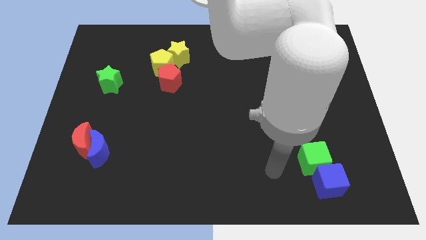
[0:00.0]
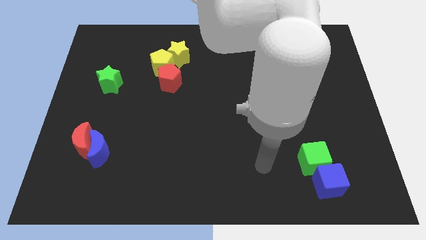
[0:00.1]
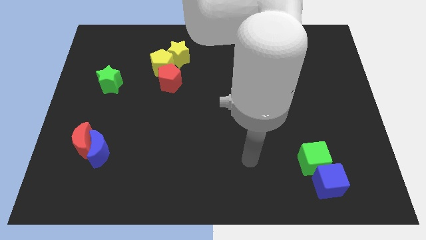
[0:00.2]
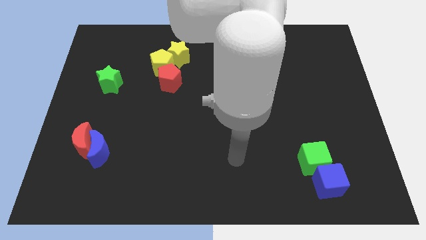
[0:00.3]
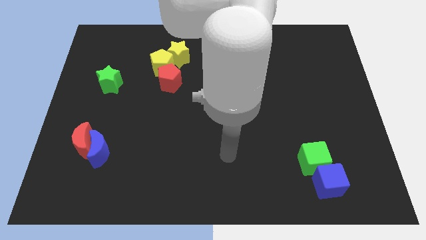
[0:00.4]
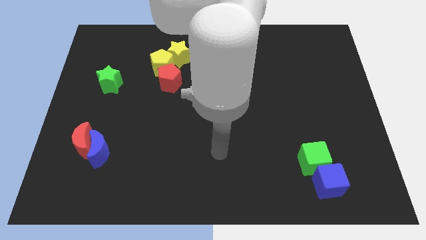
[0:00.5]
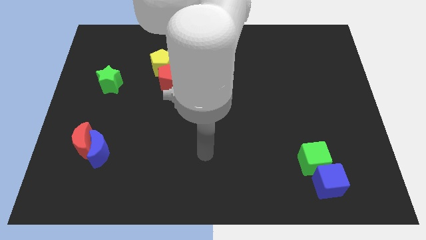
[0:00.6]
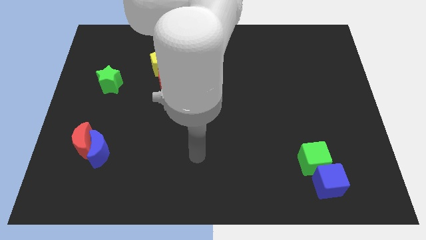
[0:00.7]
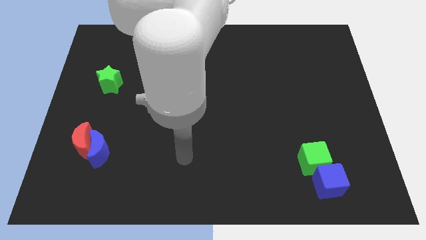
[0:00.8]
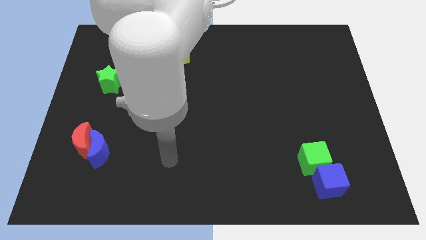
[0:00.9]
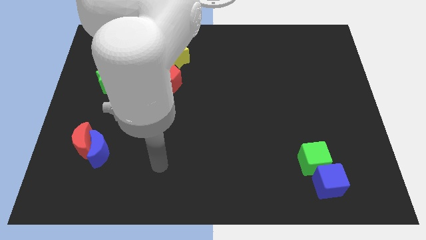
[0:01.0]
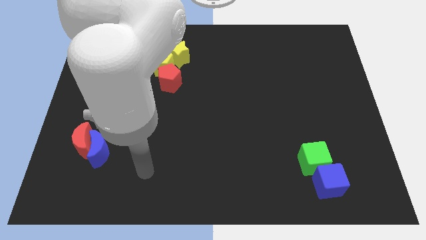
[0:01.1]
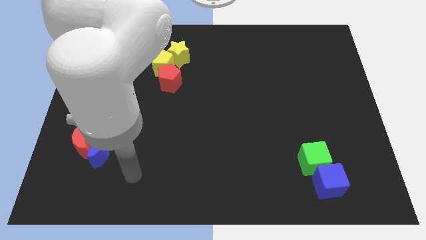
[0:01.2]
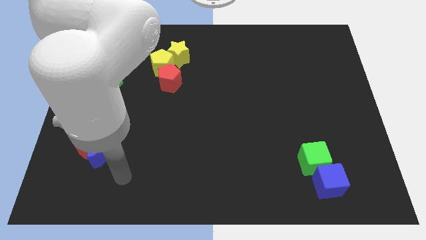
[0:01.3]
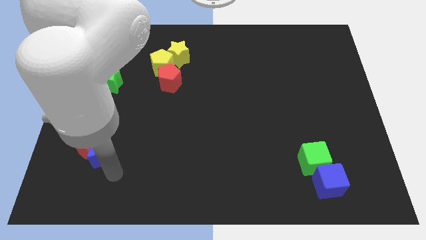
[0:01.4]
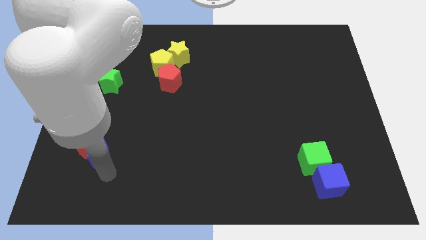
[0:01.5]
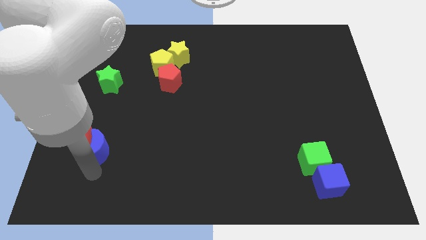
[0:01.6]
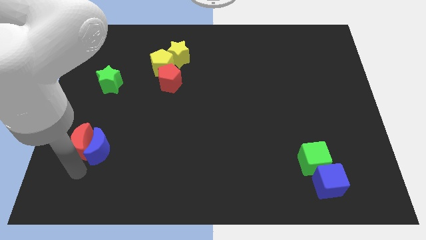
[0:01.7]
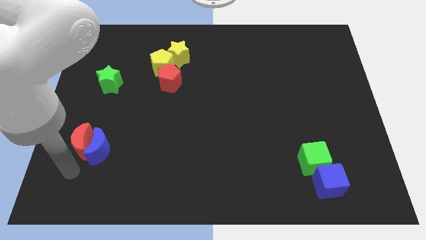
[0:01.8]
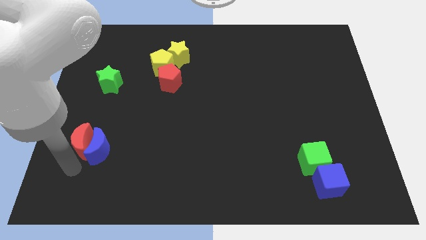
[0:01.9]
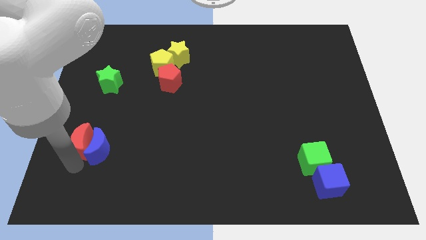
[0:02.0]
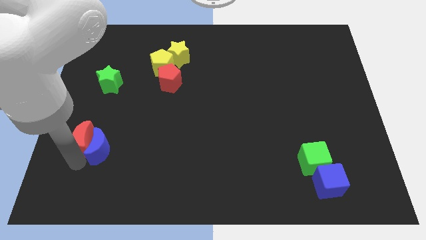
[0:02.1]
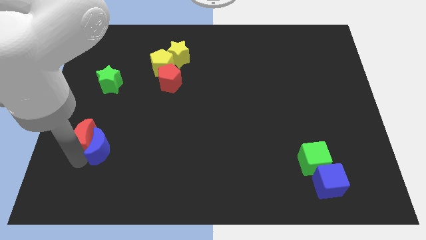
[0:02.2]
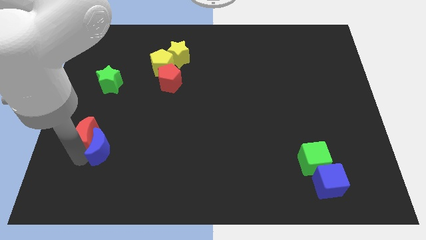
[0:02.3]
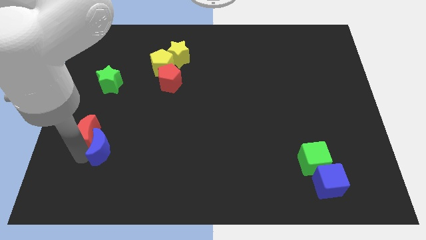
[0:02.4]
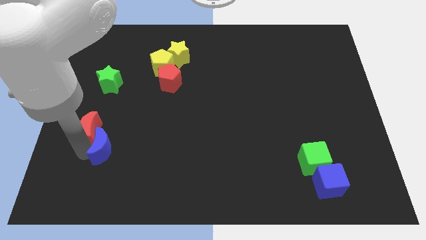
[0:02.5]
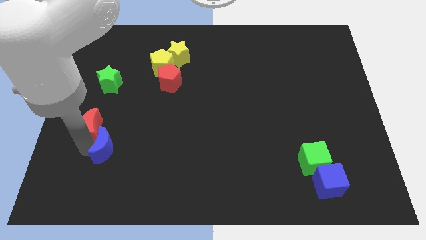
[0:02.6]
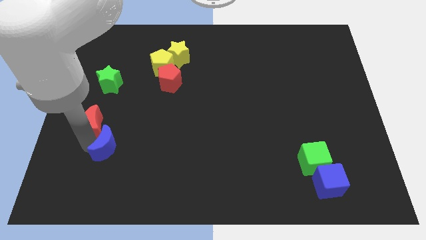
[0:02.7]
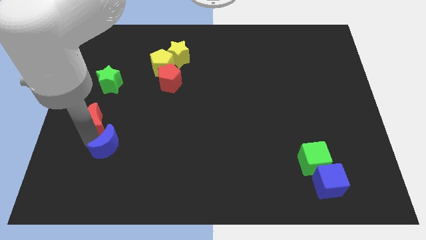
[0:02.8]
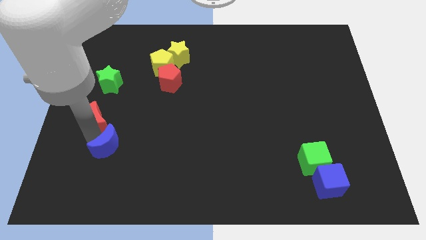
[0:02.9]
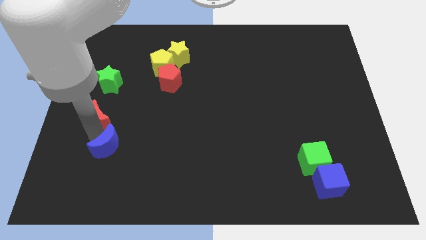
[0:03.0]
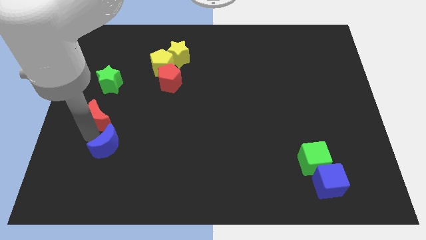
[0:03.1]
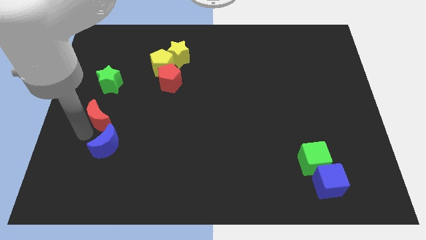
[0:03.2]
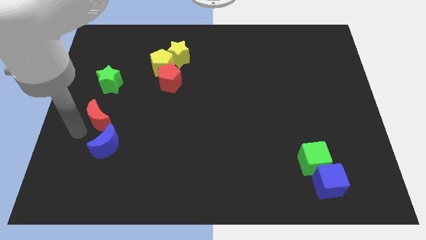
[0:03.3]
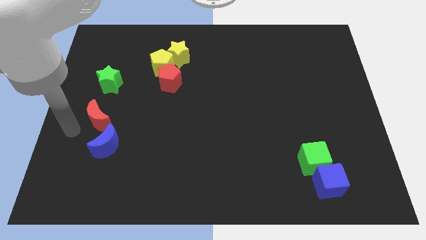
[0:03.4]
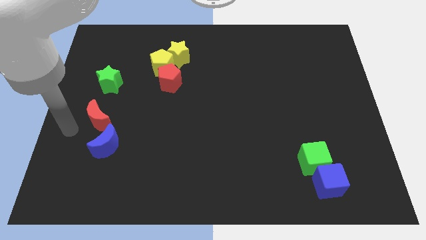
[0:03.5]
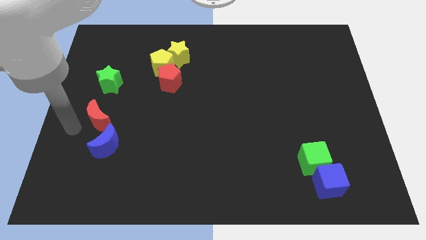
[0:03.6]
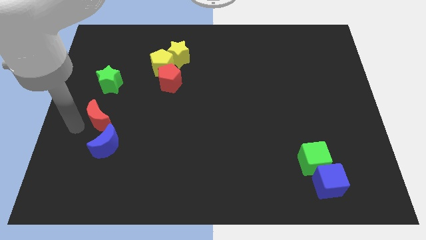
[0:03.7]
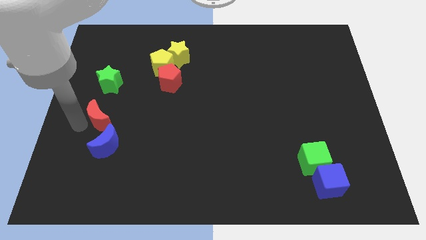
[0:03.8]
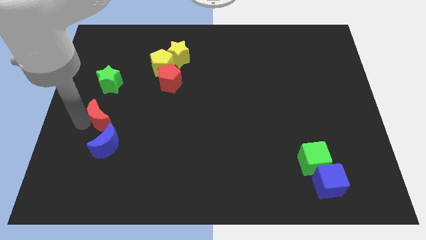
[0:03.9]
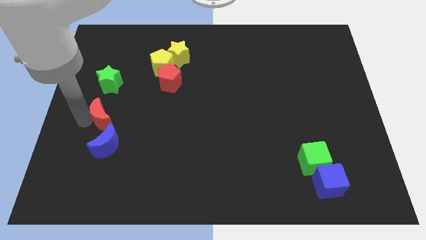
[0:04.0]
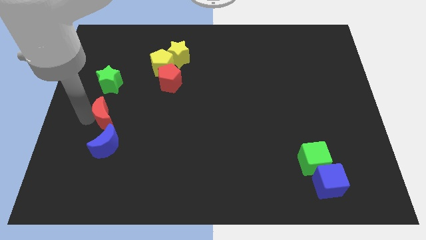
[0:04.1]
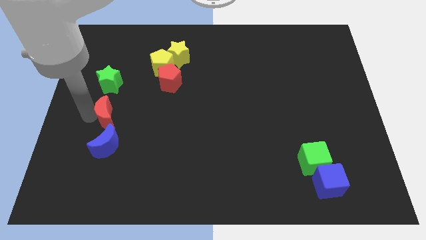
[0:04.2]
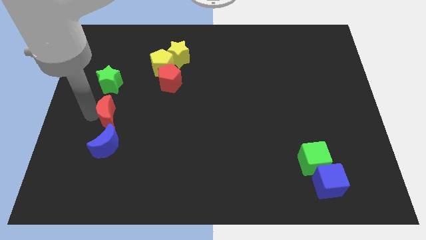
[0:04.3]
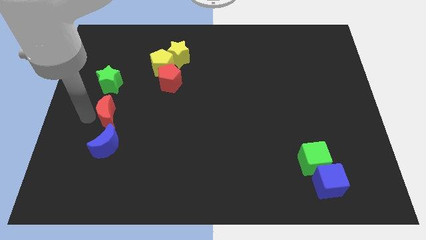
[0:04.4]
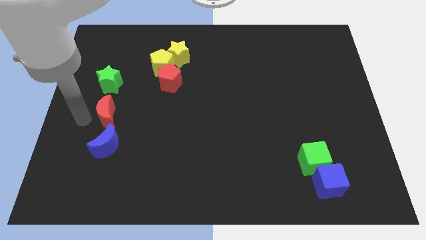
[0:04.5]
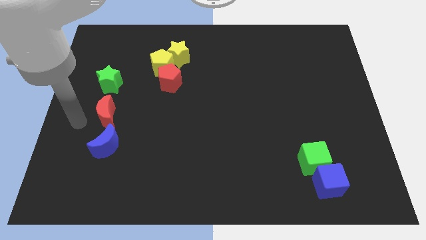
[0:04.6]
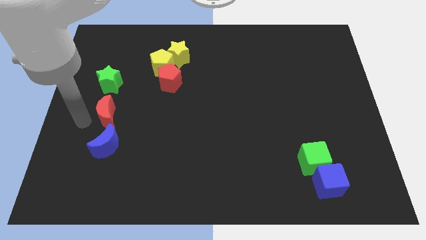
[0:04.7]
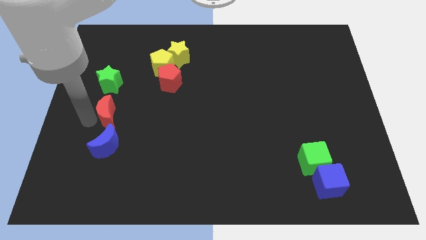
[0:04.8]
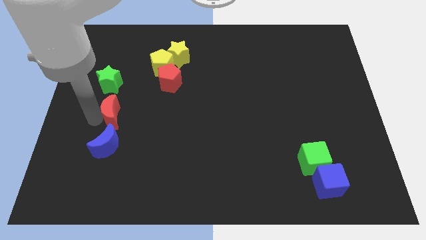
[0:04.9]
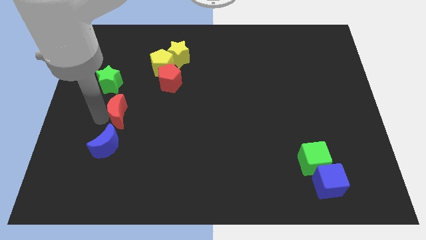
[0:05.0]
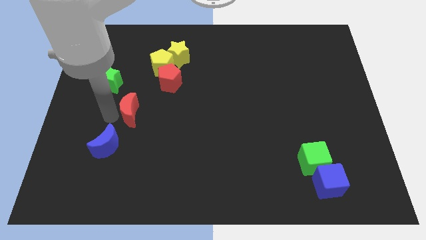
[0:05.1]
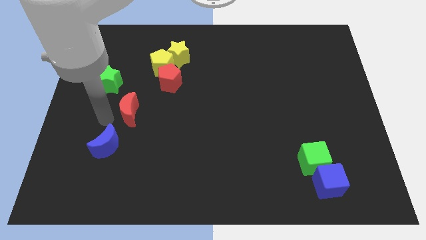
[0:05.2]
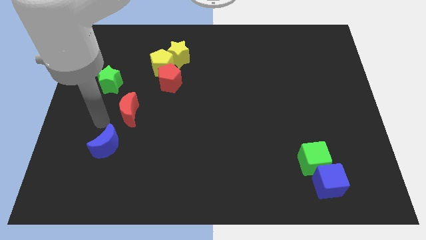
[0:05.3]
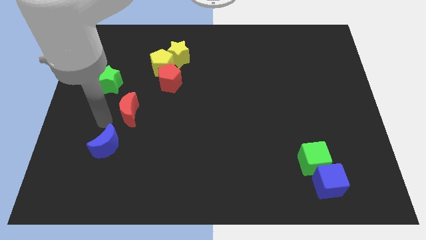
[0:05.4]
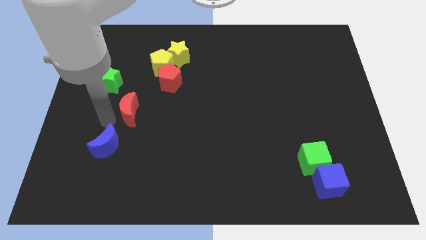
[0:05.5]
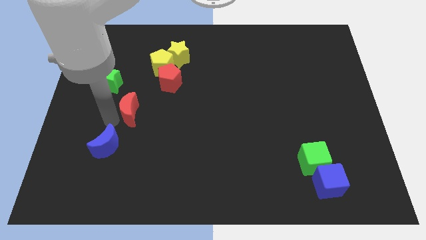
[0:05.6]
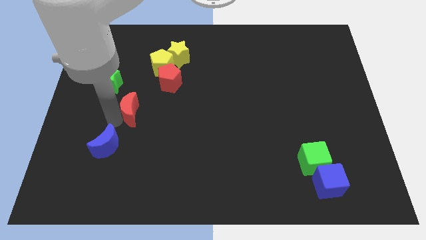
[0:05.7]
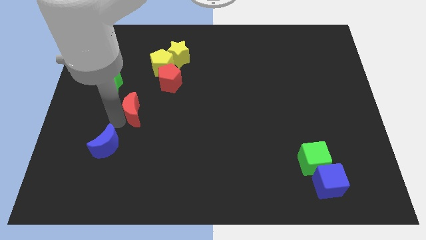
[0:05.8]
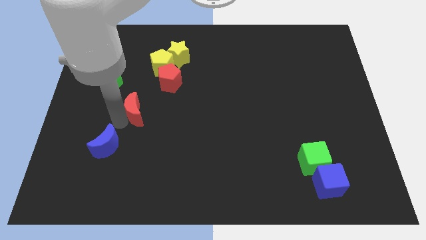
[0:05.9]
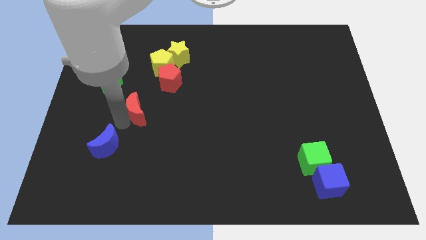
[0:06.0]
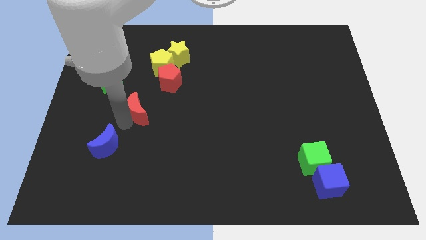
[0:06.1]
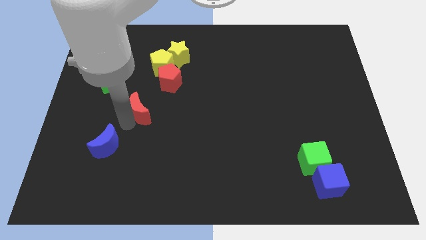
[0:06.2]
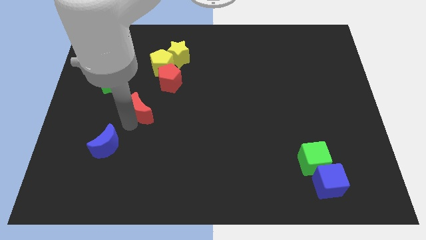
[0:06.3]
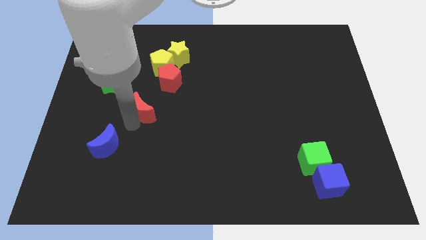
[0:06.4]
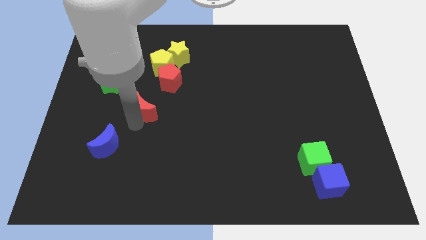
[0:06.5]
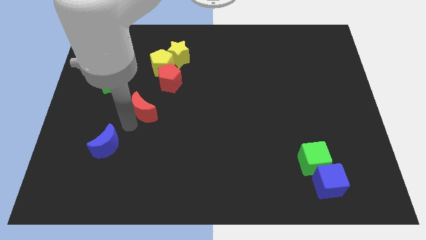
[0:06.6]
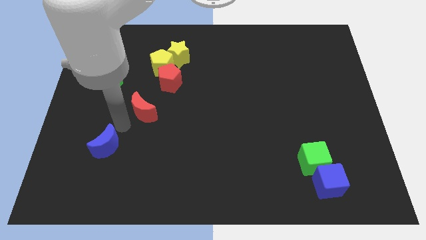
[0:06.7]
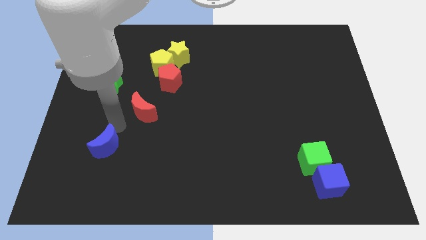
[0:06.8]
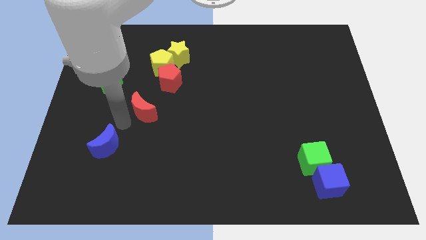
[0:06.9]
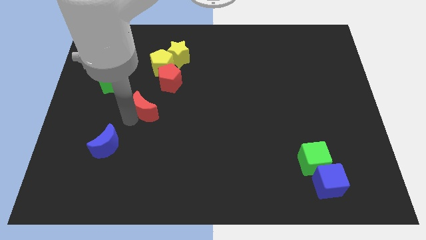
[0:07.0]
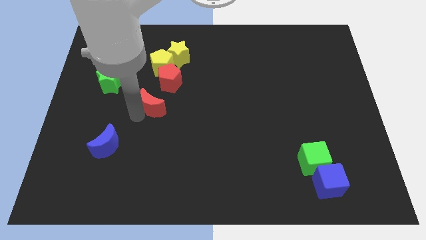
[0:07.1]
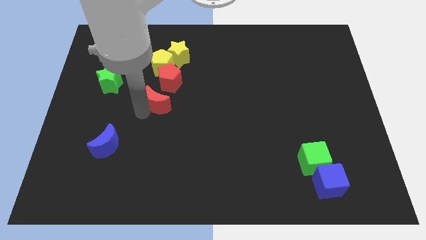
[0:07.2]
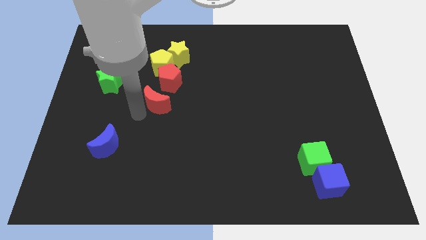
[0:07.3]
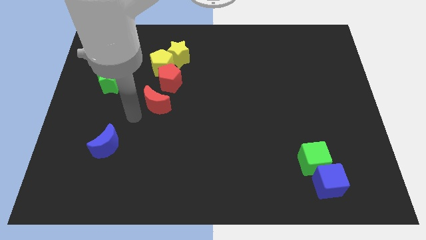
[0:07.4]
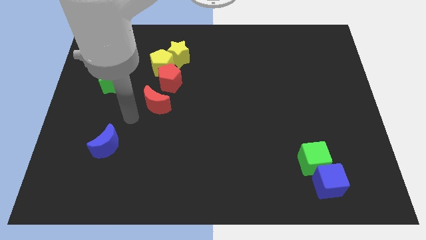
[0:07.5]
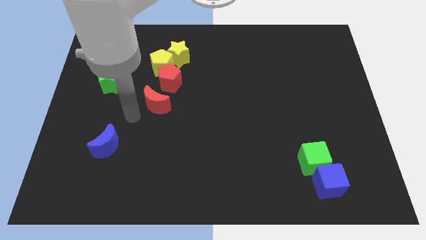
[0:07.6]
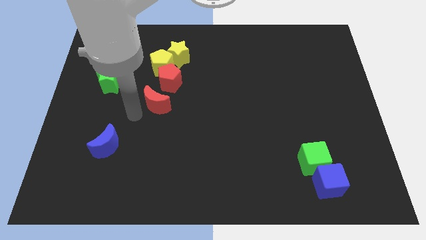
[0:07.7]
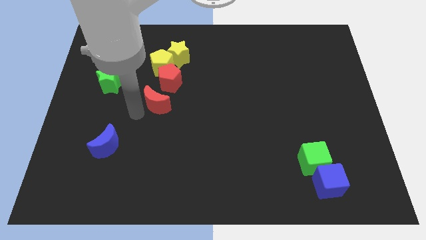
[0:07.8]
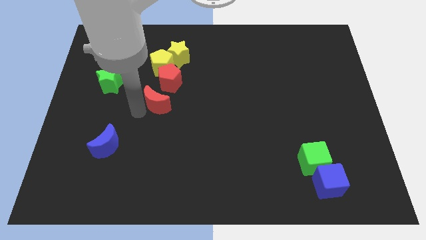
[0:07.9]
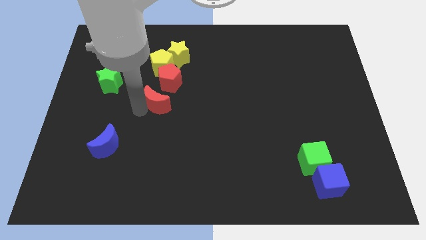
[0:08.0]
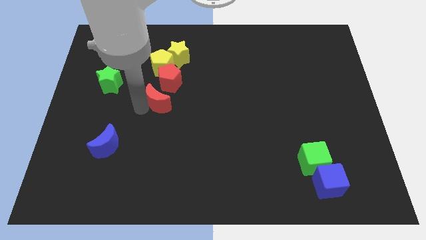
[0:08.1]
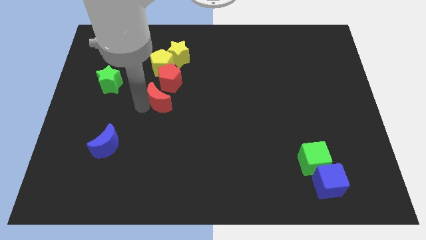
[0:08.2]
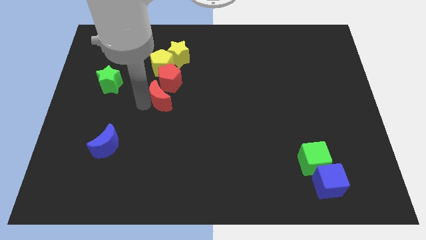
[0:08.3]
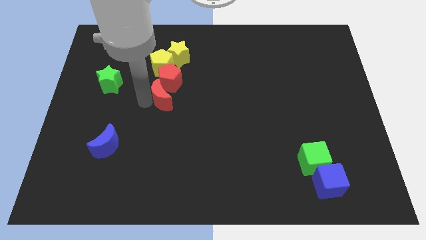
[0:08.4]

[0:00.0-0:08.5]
move the red moon up and to the right
